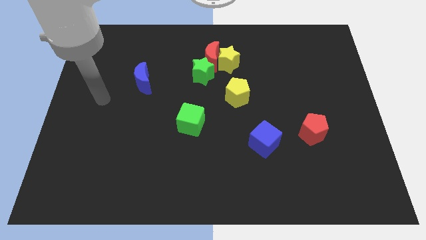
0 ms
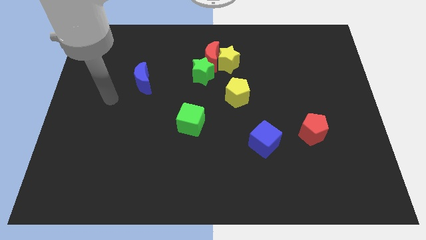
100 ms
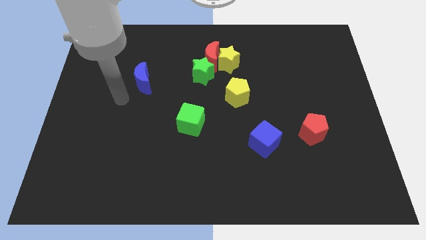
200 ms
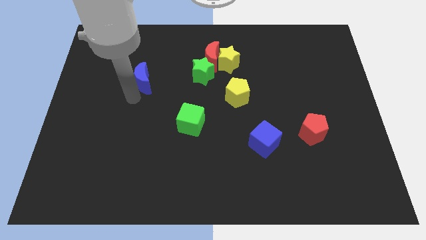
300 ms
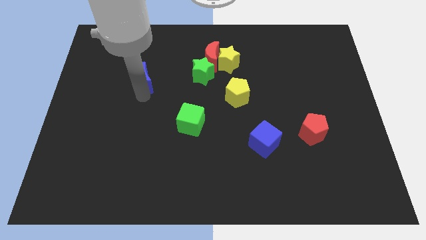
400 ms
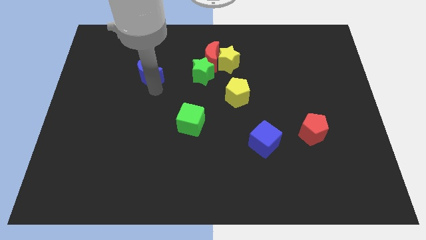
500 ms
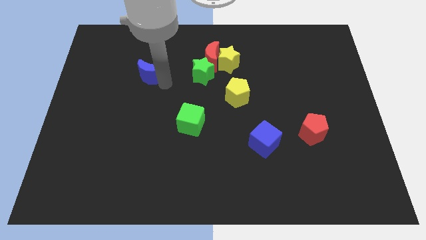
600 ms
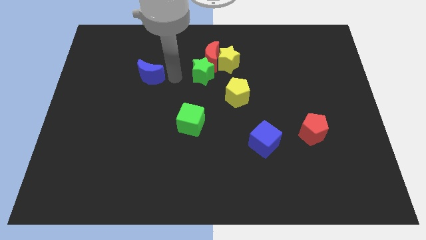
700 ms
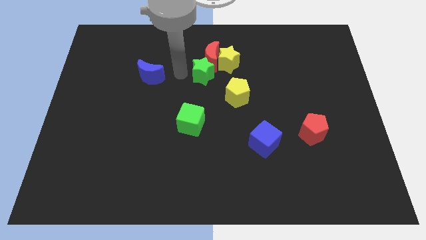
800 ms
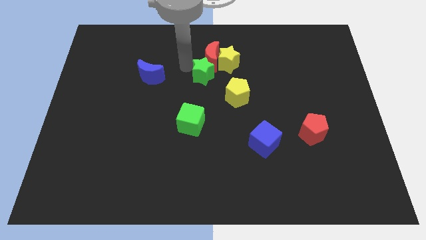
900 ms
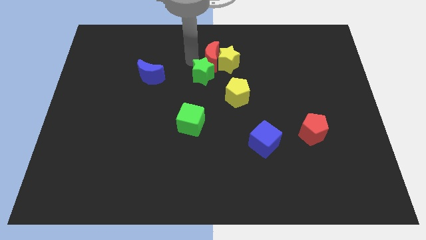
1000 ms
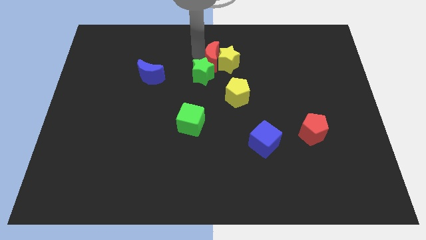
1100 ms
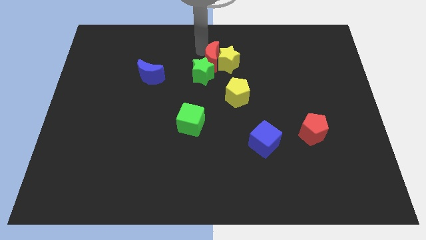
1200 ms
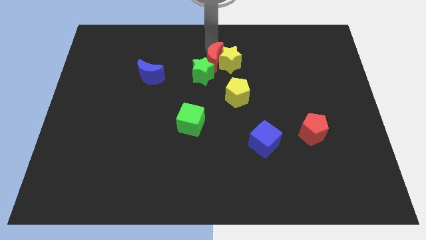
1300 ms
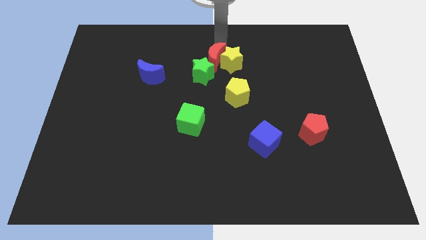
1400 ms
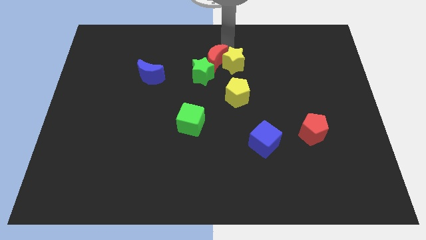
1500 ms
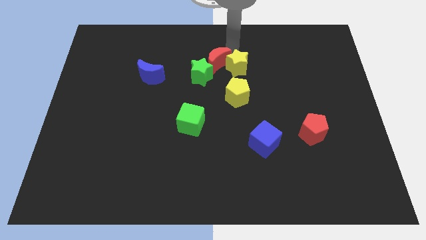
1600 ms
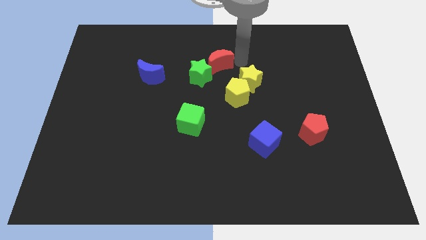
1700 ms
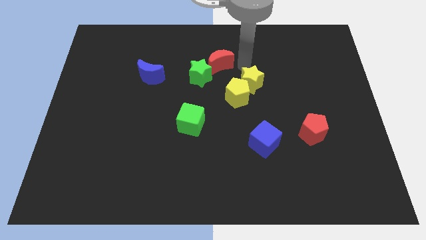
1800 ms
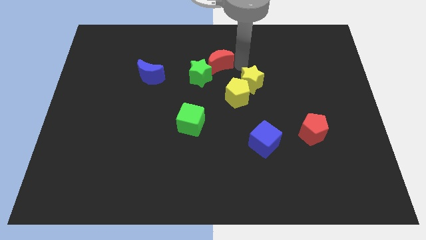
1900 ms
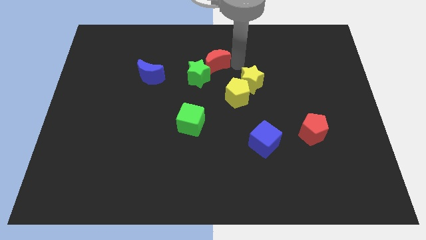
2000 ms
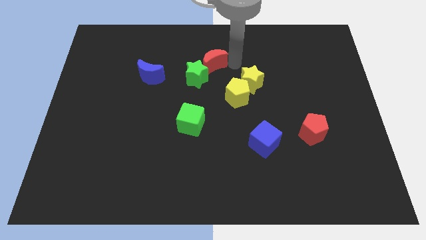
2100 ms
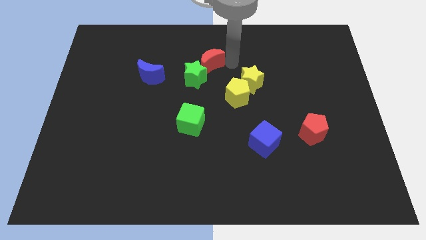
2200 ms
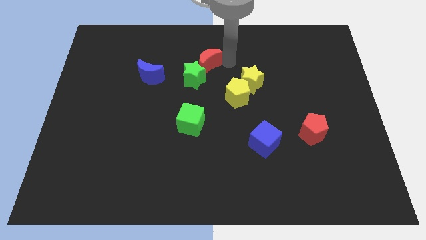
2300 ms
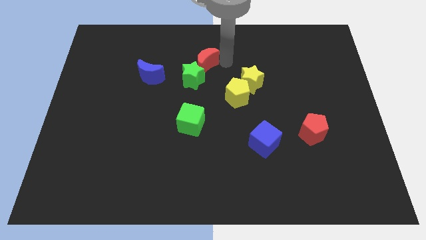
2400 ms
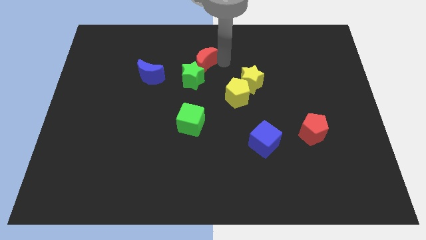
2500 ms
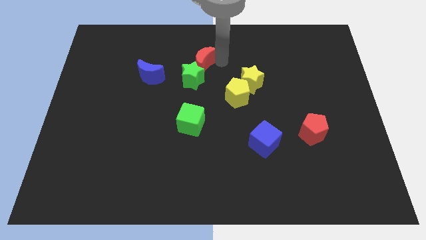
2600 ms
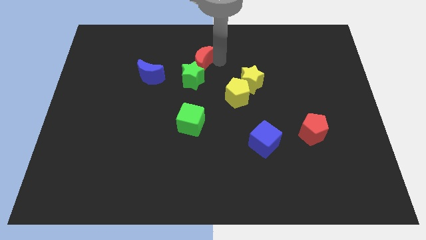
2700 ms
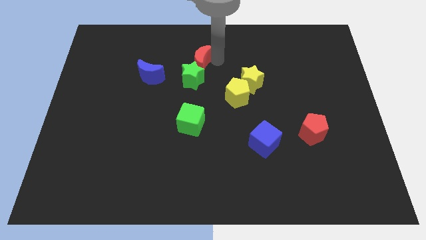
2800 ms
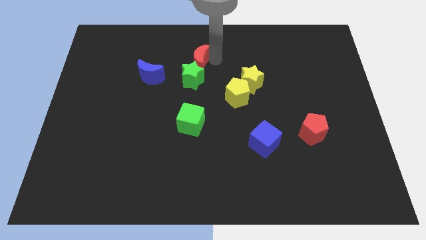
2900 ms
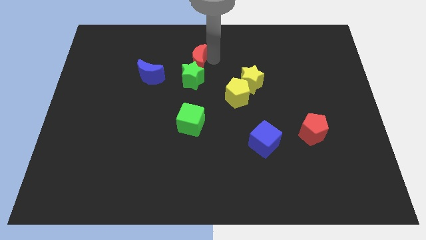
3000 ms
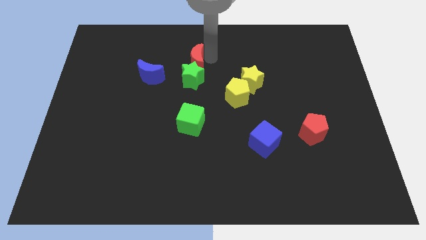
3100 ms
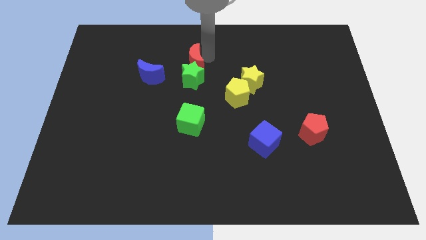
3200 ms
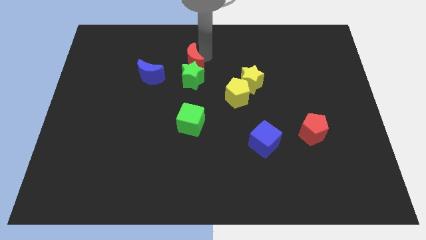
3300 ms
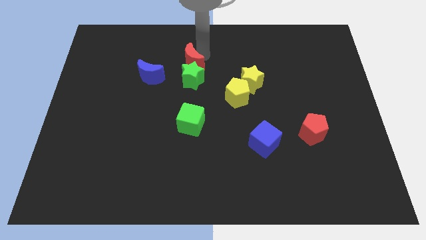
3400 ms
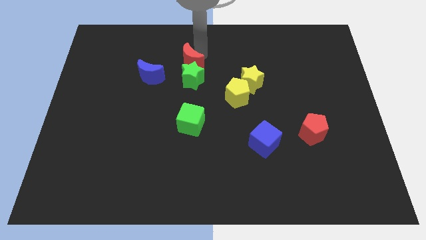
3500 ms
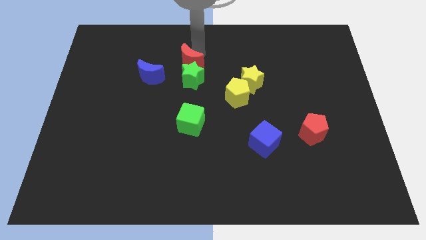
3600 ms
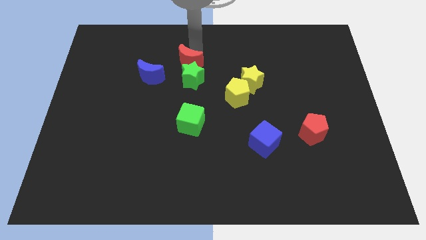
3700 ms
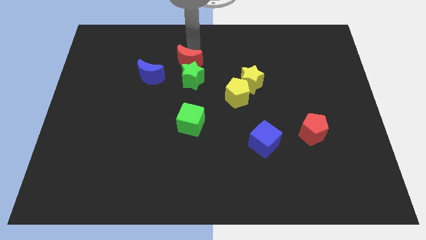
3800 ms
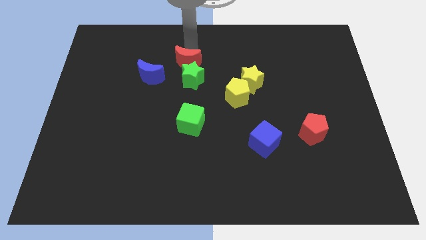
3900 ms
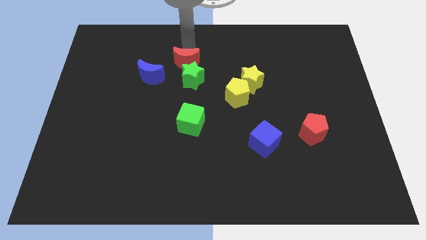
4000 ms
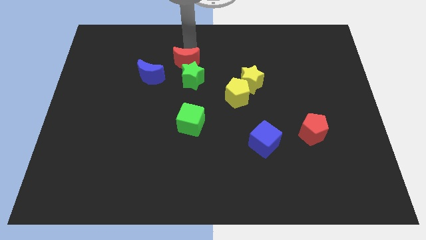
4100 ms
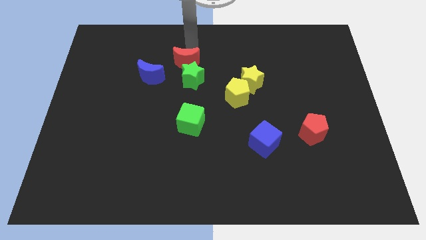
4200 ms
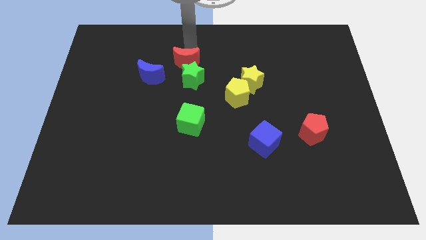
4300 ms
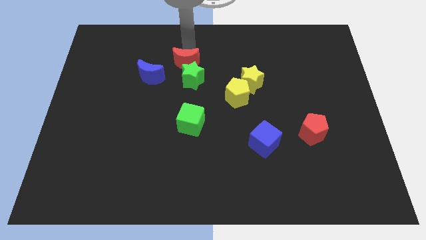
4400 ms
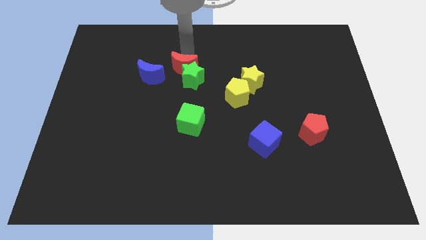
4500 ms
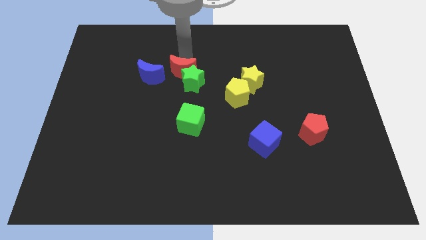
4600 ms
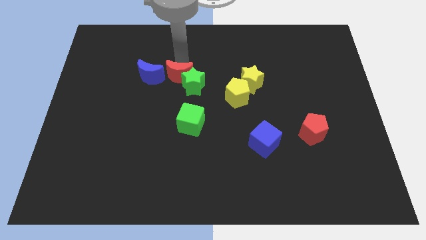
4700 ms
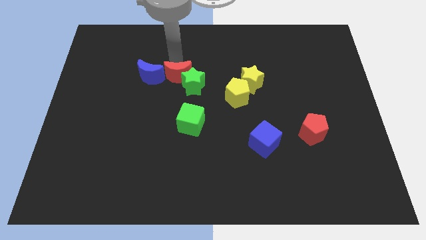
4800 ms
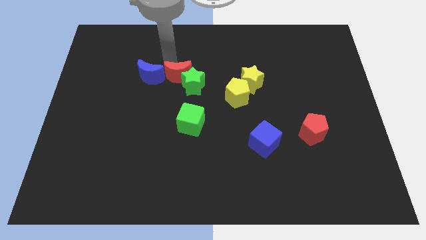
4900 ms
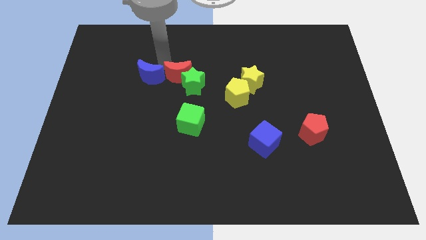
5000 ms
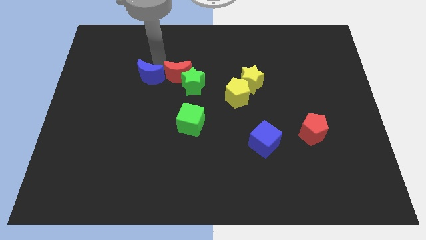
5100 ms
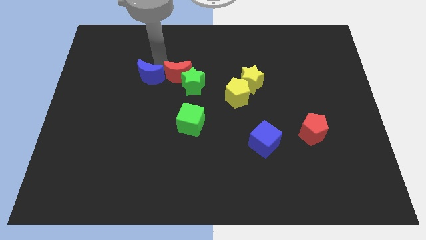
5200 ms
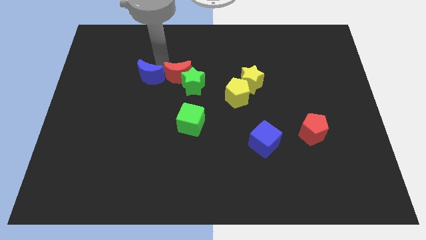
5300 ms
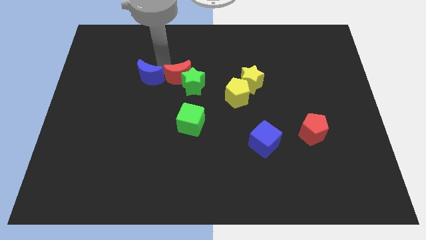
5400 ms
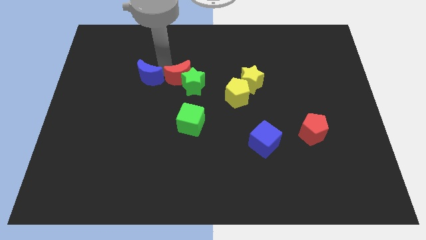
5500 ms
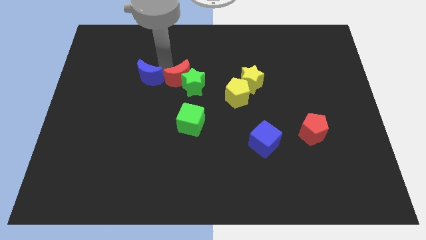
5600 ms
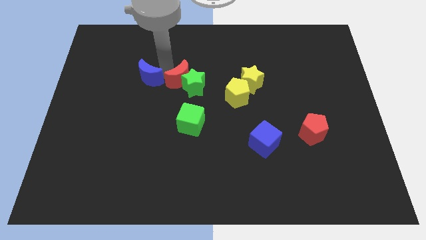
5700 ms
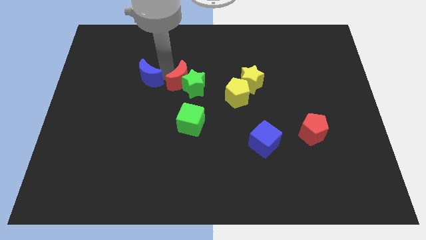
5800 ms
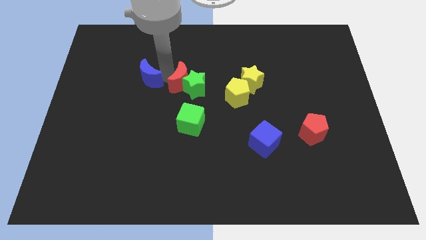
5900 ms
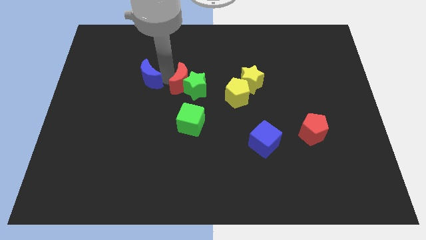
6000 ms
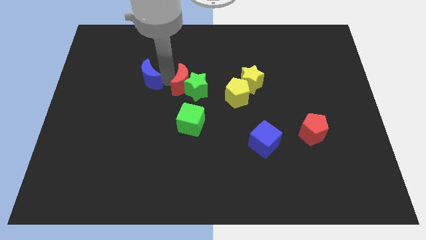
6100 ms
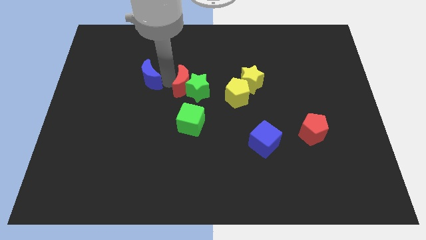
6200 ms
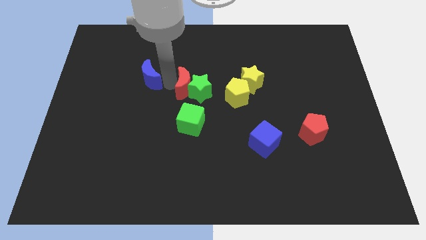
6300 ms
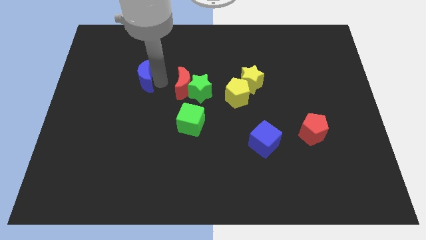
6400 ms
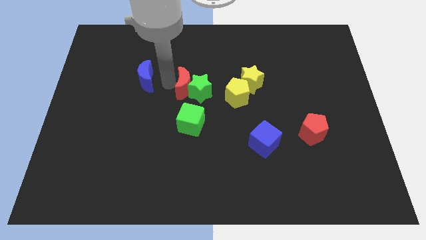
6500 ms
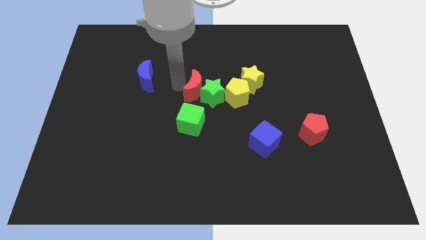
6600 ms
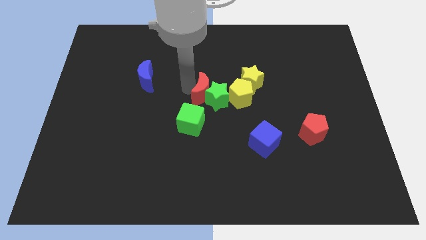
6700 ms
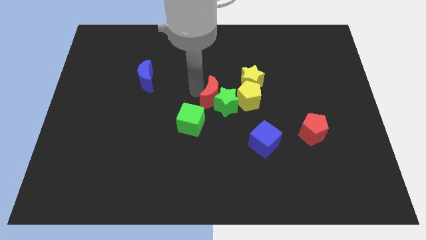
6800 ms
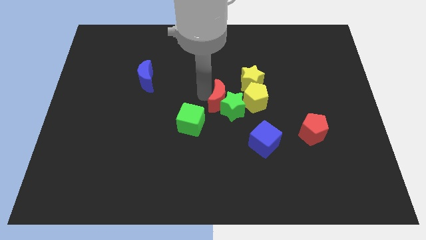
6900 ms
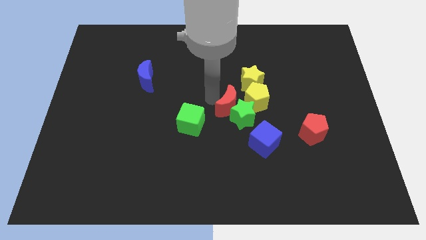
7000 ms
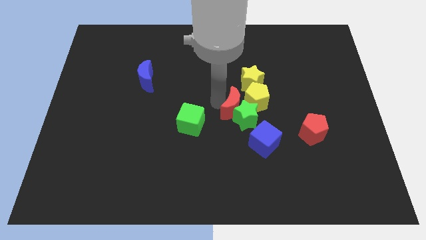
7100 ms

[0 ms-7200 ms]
move the red moon towards the yellow pentagon
